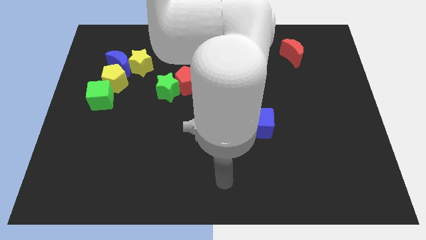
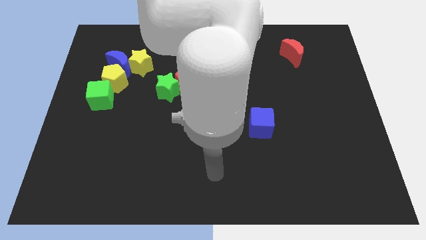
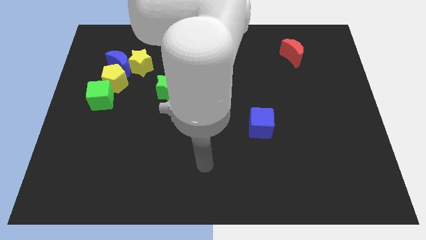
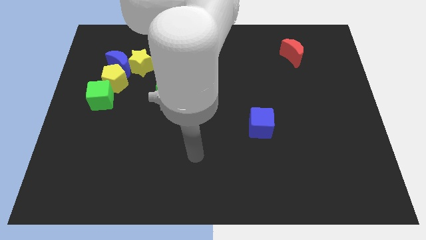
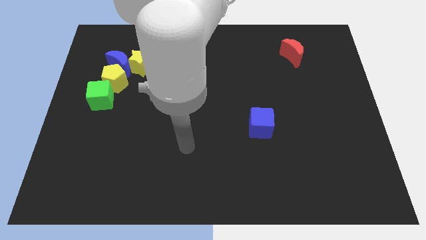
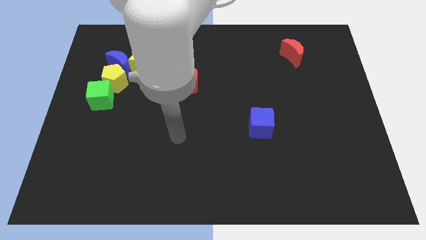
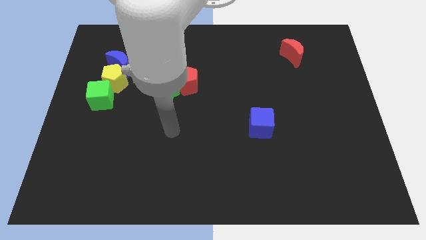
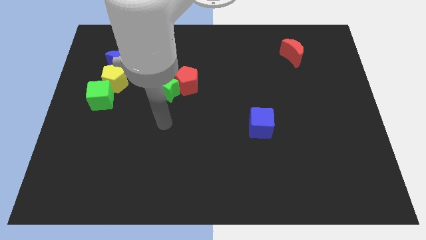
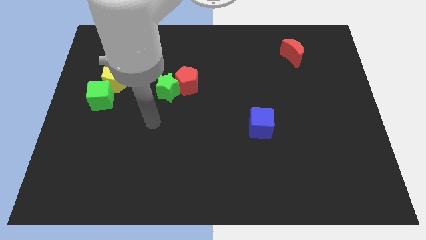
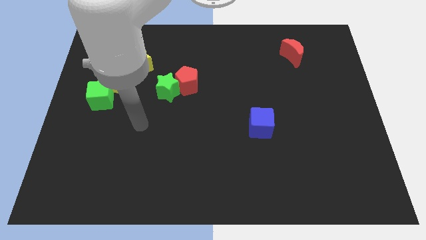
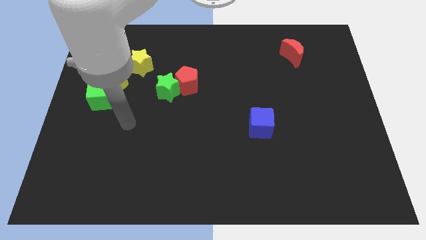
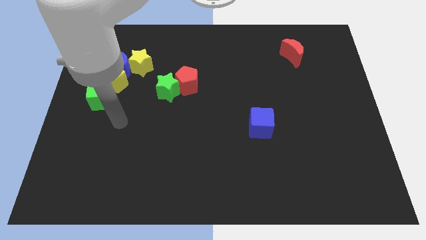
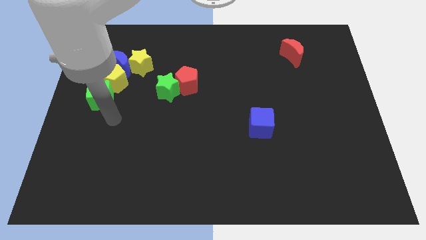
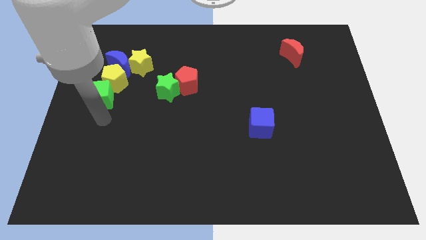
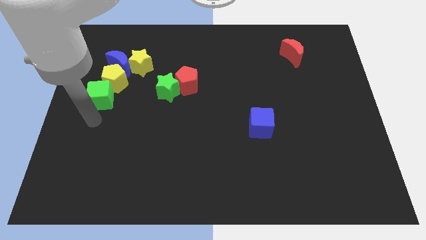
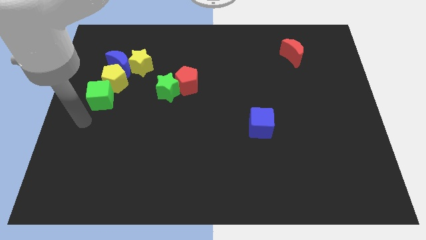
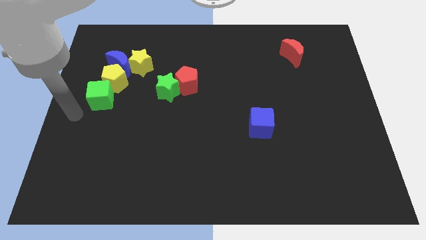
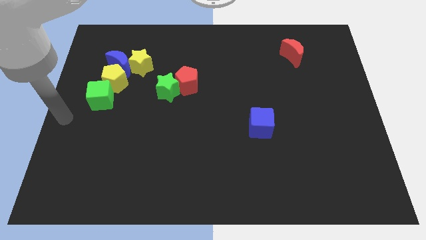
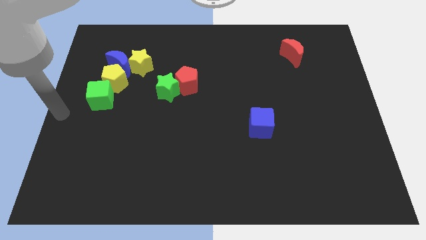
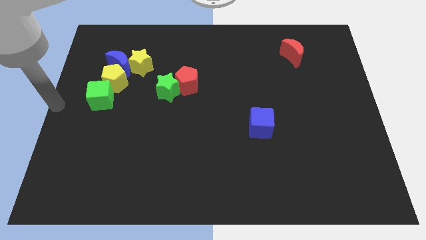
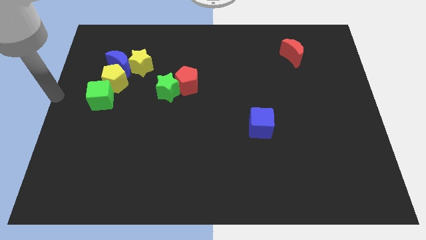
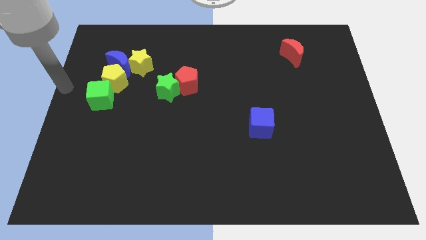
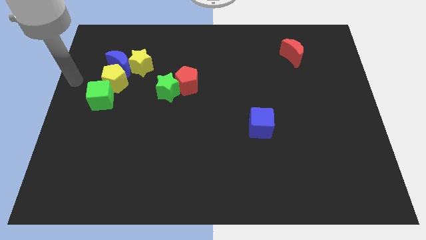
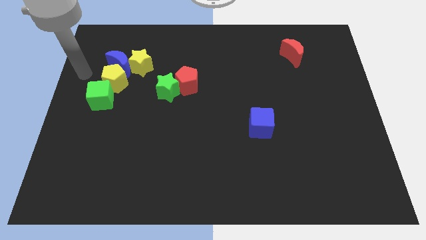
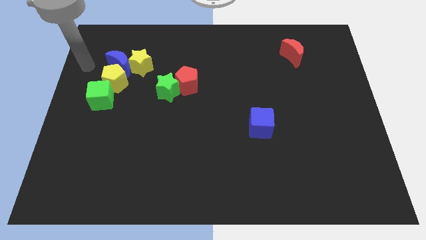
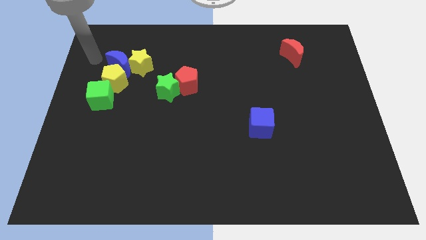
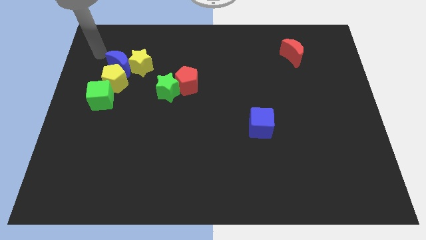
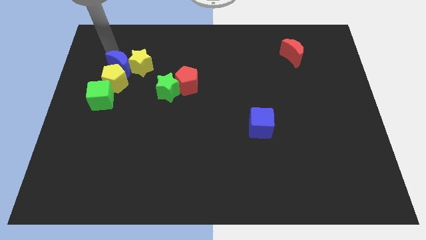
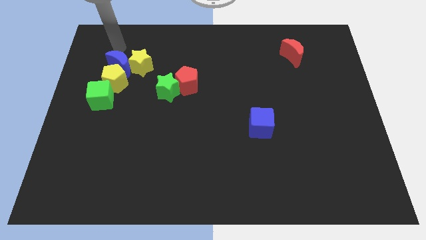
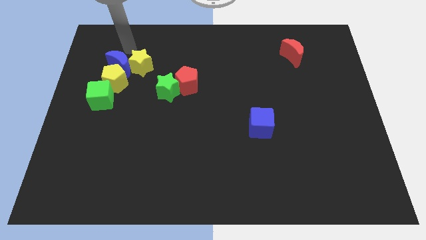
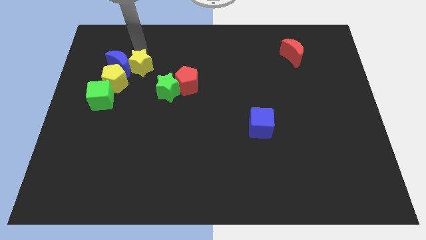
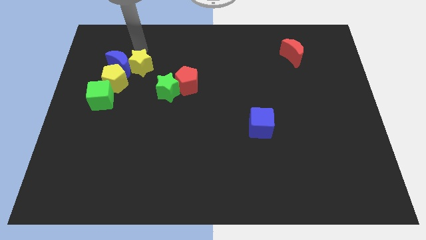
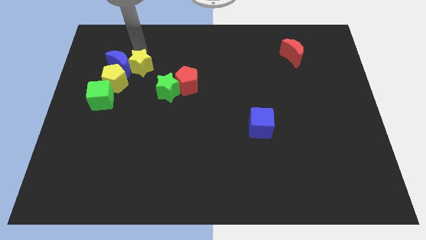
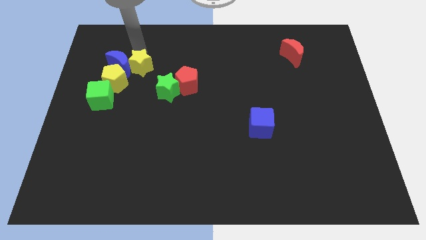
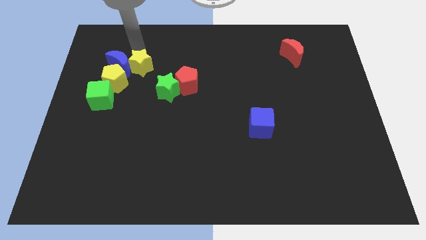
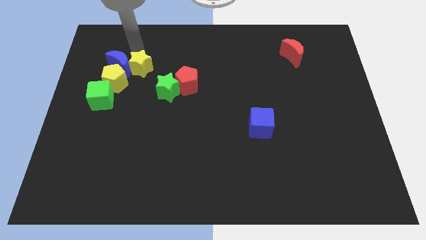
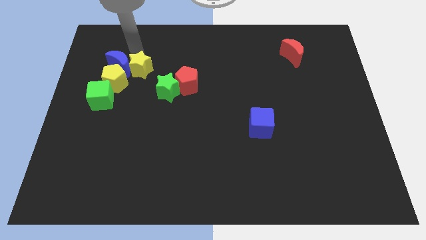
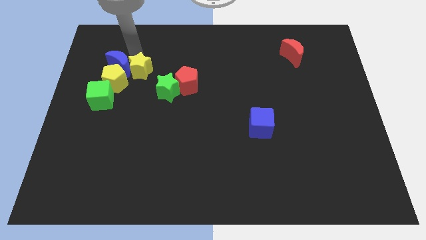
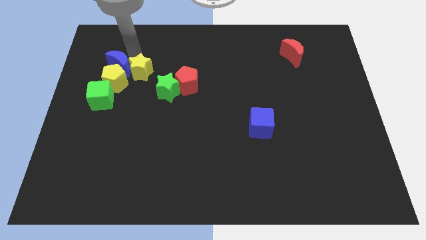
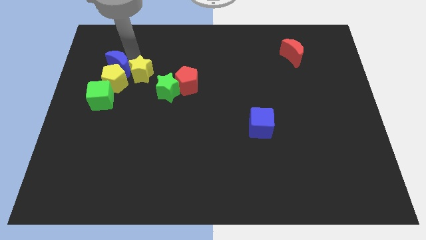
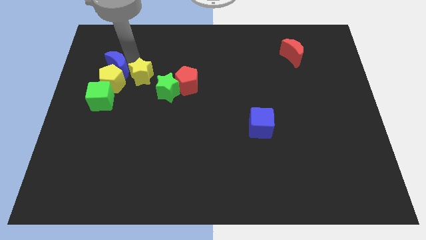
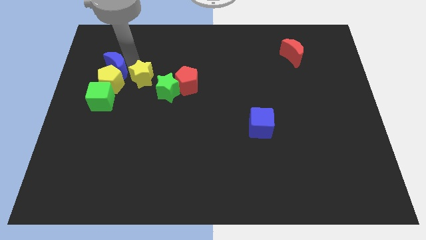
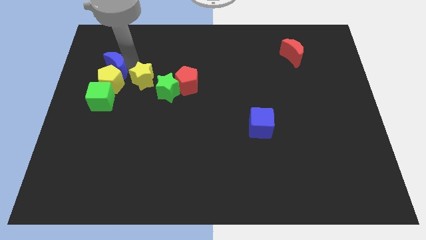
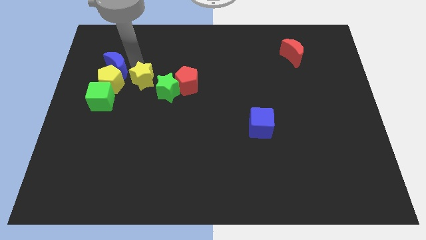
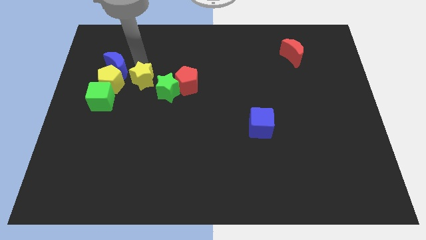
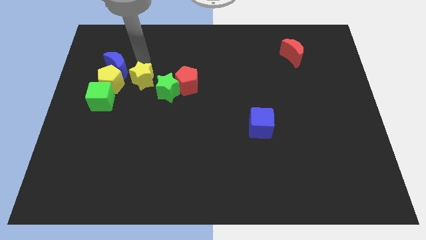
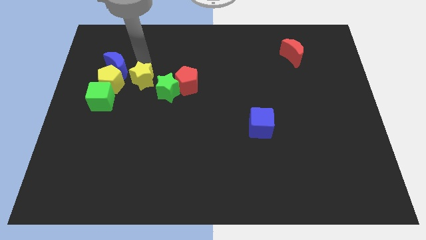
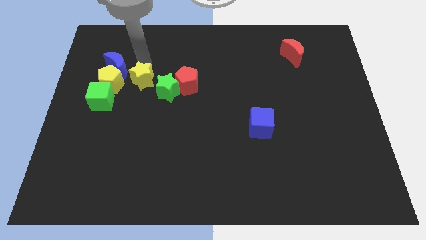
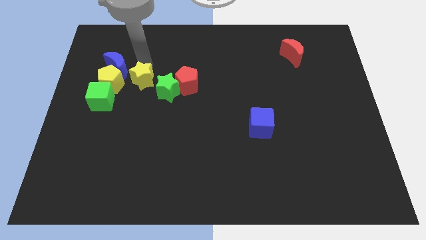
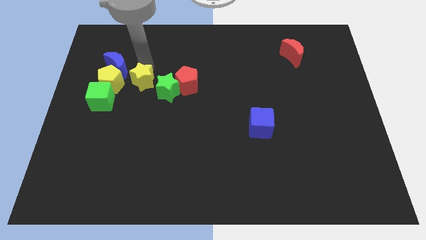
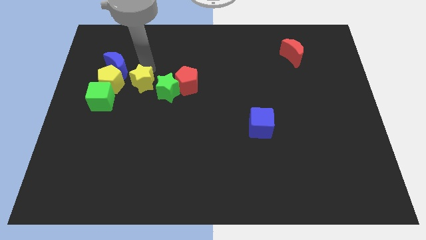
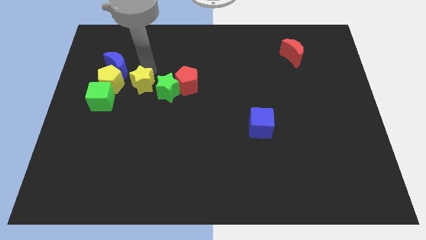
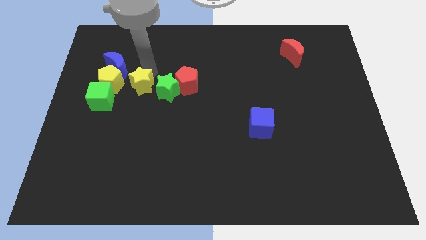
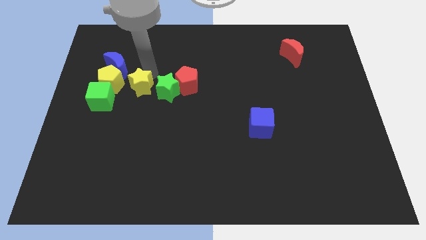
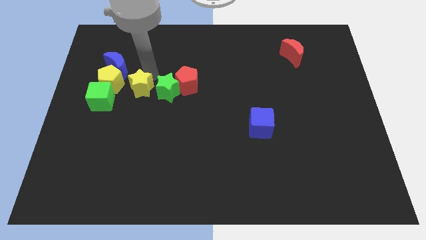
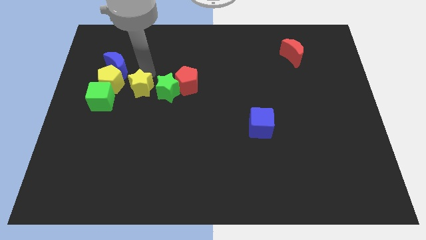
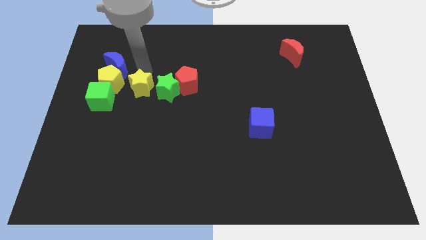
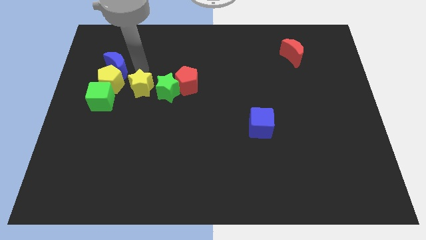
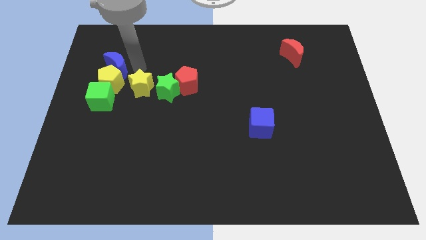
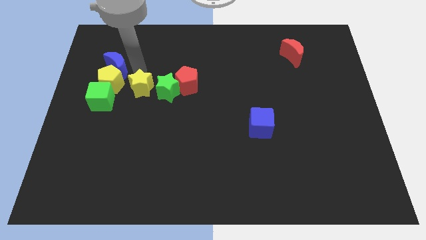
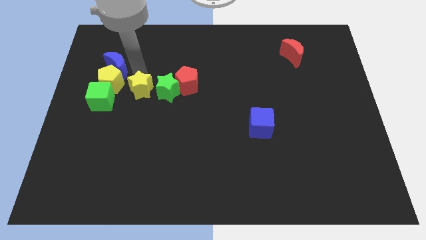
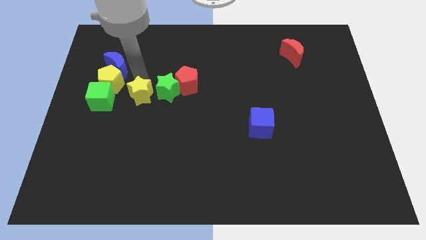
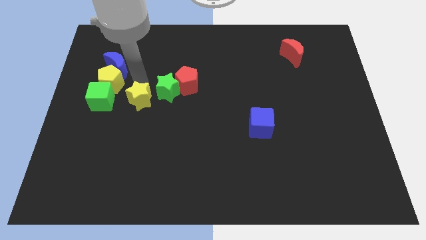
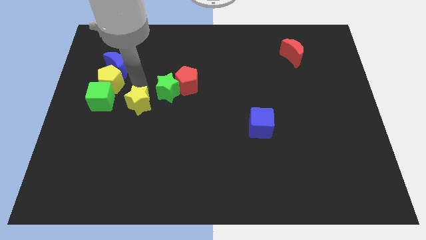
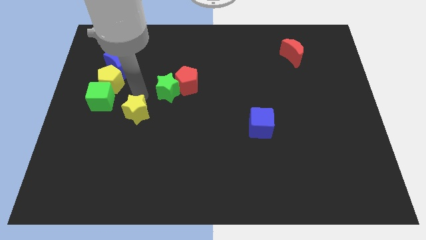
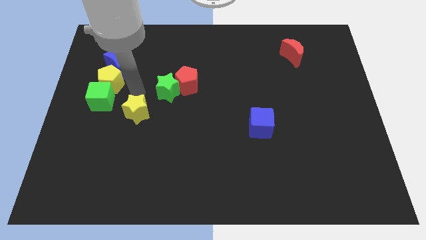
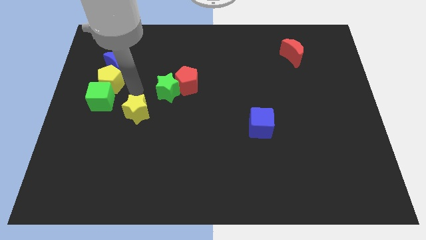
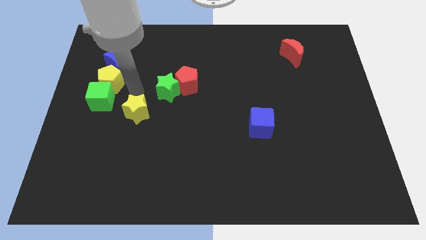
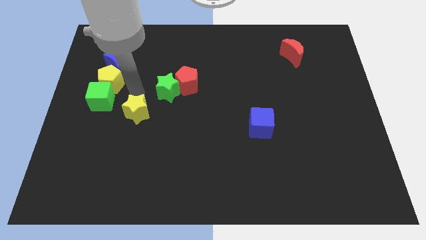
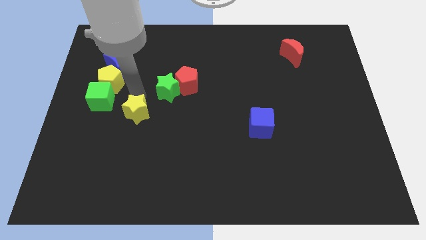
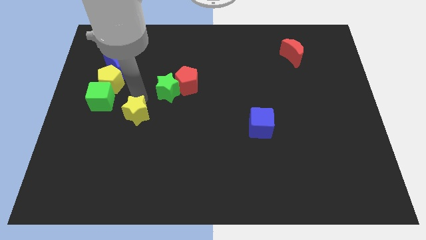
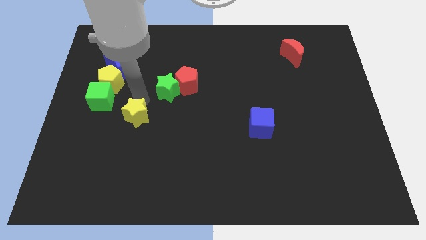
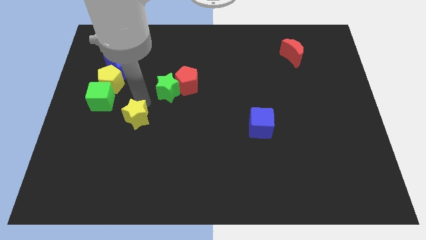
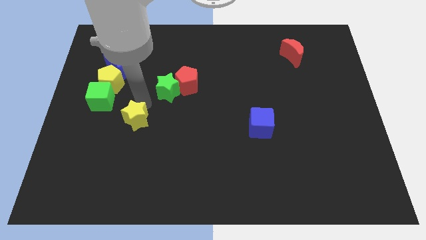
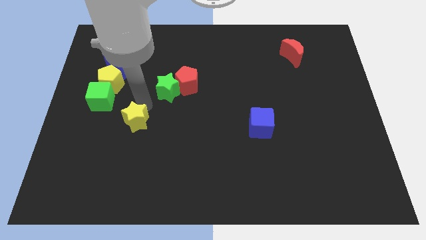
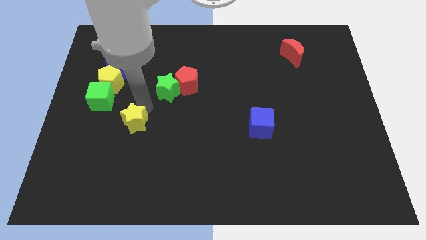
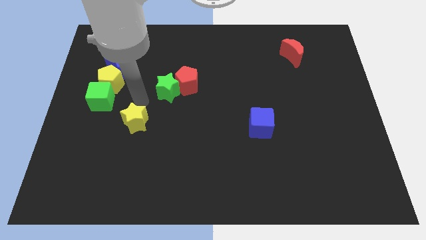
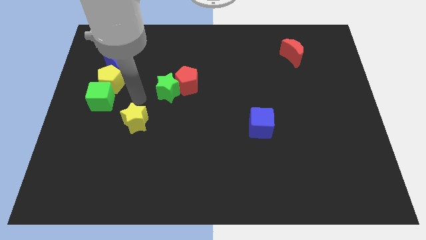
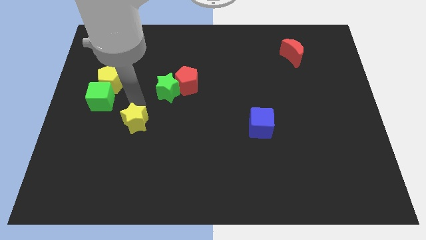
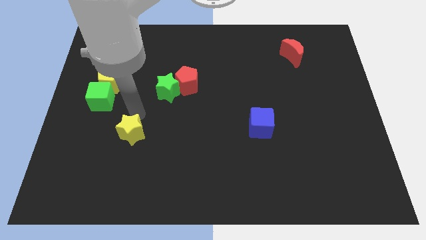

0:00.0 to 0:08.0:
slide the yellow star downwards

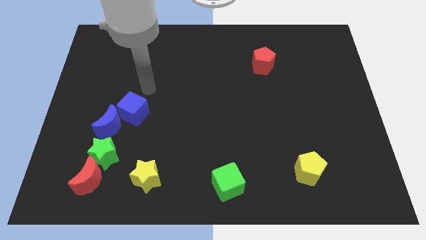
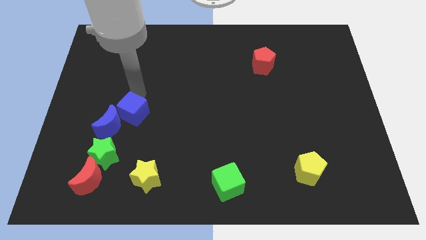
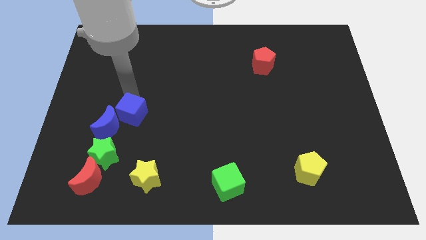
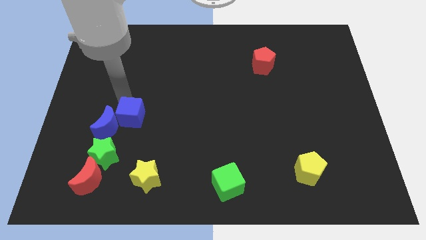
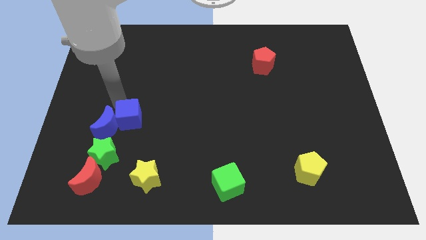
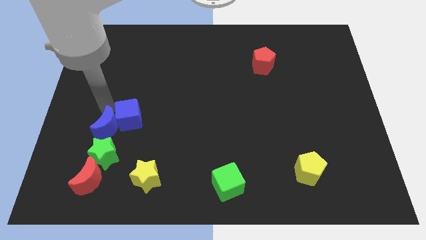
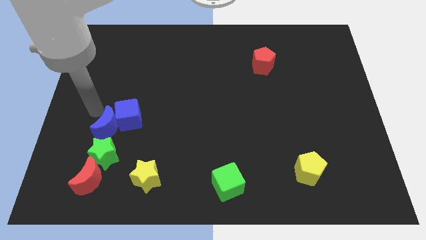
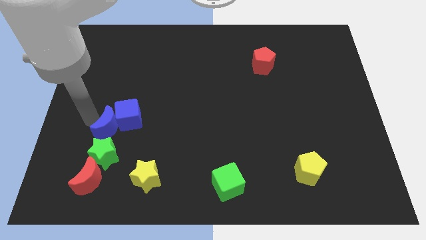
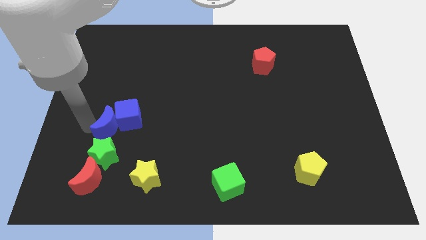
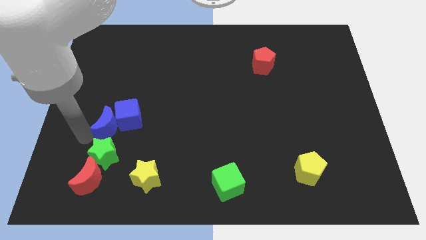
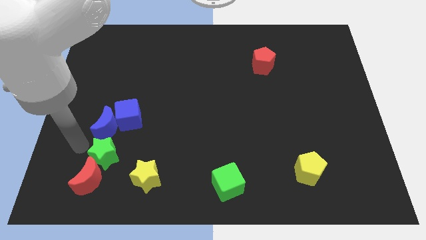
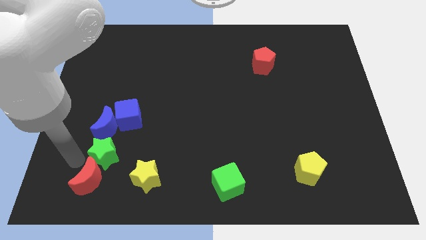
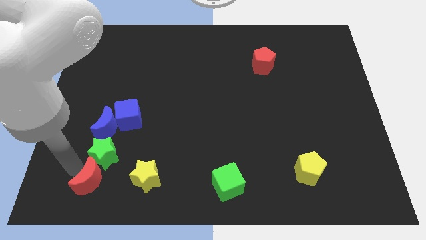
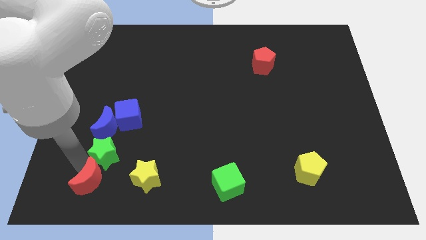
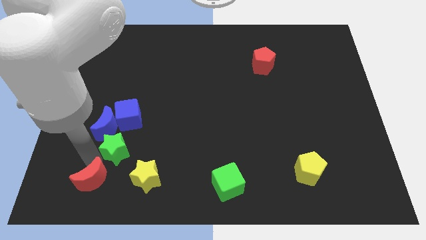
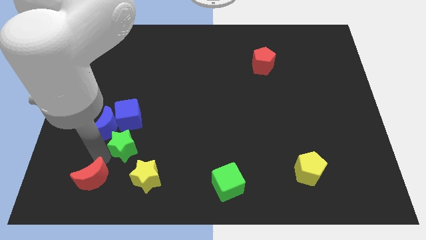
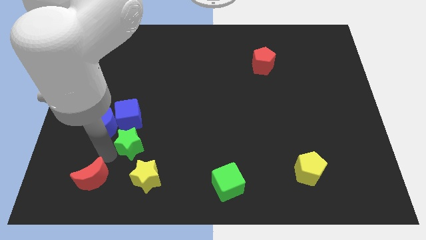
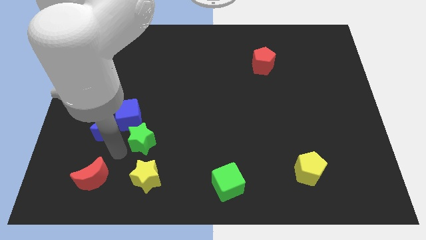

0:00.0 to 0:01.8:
push the green star diagonally up and to the right slightly
